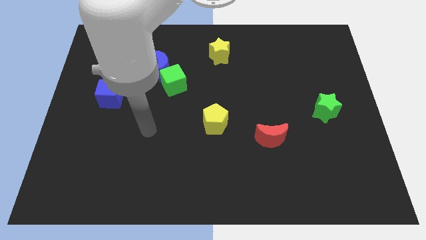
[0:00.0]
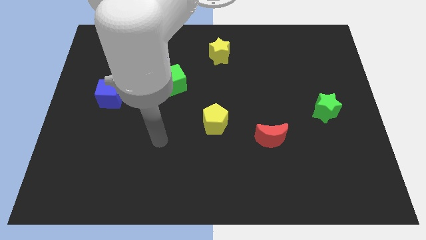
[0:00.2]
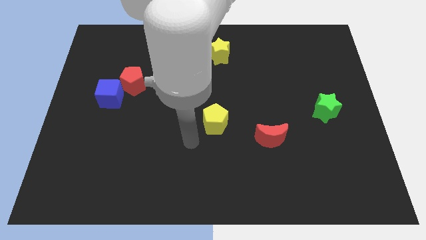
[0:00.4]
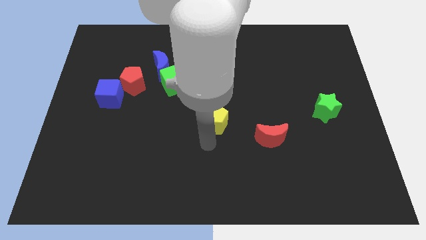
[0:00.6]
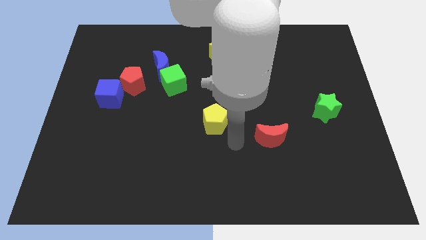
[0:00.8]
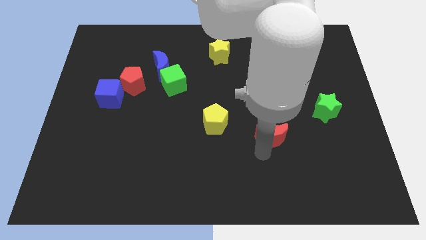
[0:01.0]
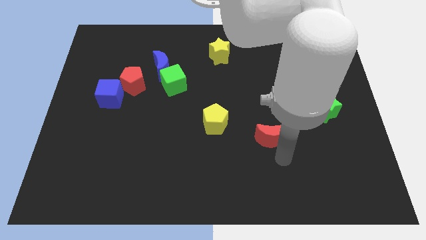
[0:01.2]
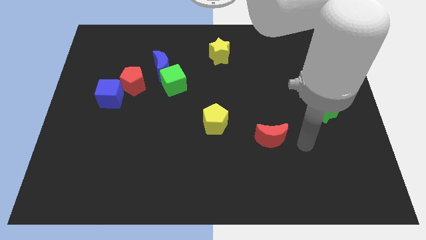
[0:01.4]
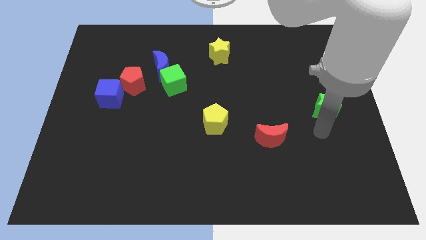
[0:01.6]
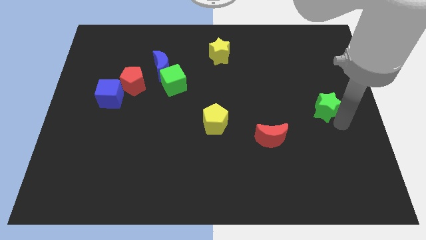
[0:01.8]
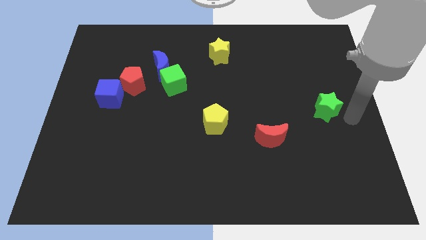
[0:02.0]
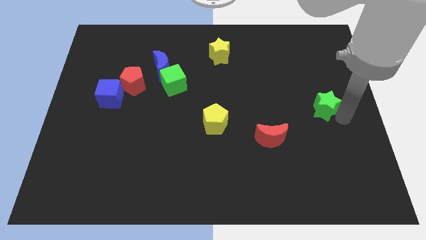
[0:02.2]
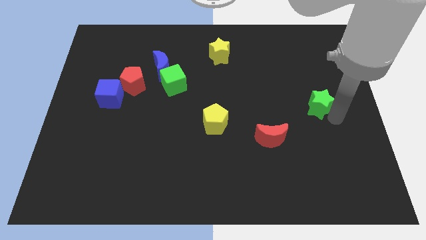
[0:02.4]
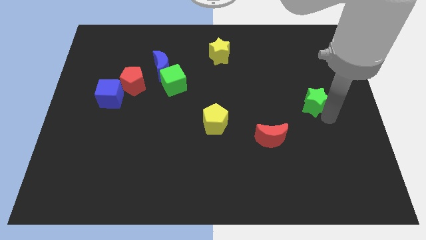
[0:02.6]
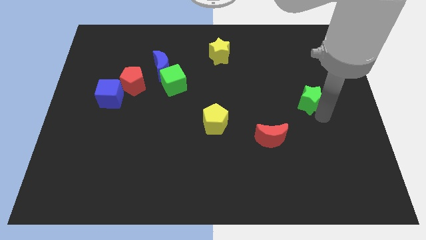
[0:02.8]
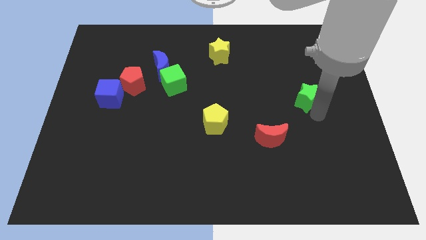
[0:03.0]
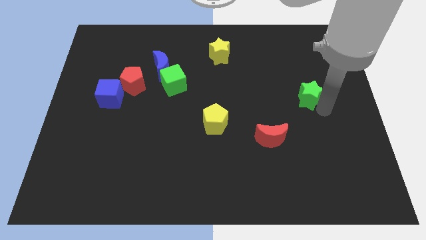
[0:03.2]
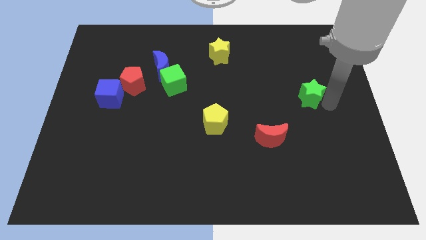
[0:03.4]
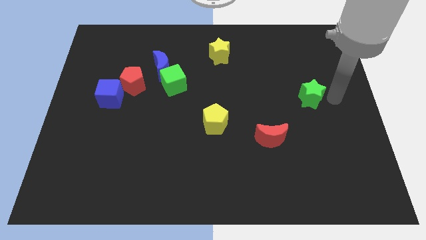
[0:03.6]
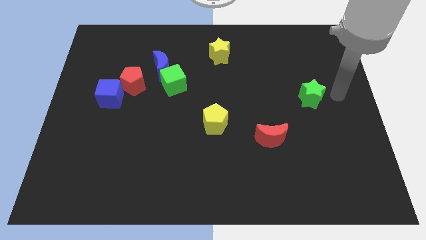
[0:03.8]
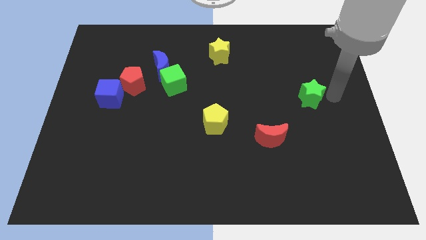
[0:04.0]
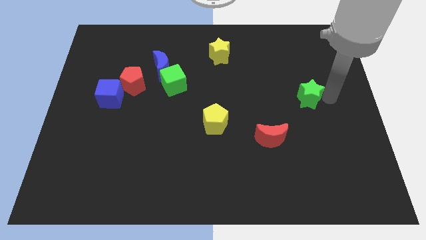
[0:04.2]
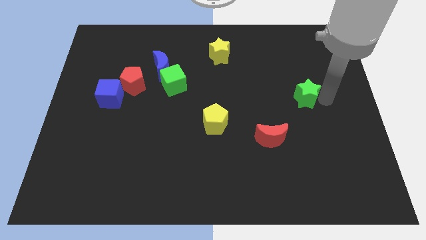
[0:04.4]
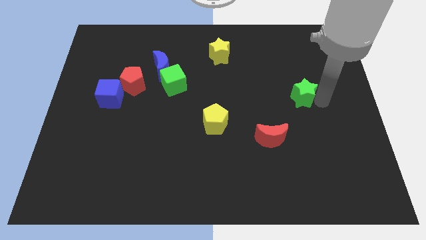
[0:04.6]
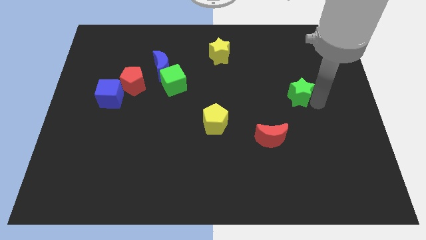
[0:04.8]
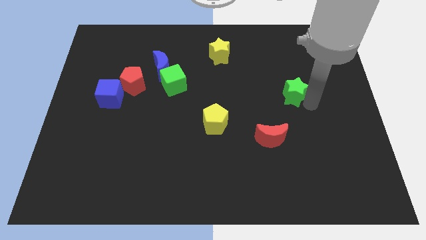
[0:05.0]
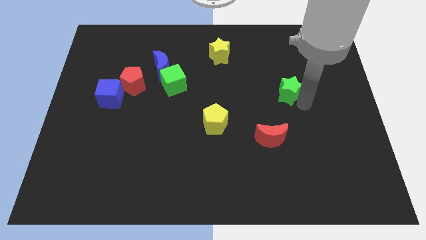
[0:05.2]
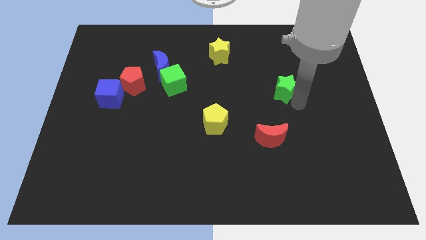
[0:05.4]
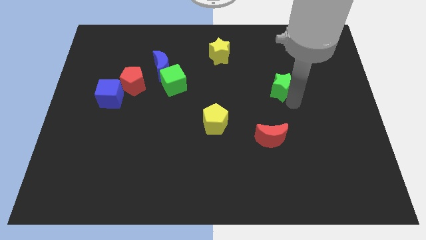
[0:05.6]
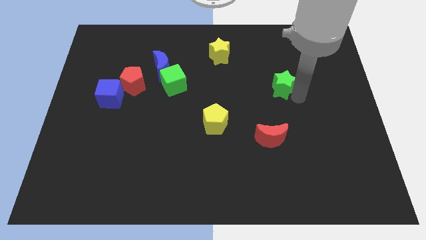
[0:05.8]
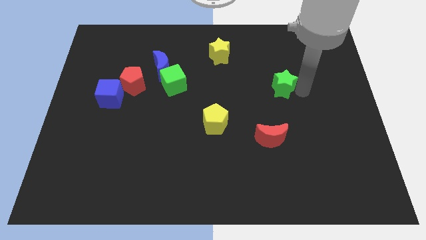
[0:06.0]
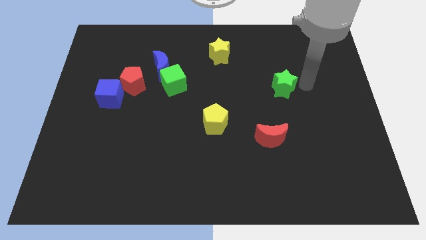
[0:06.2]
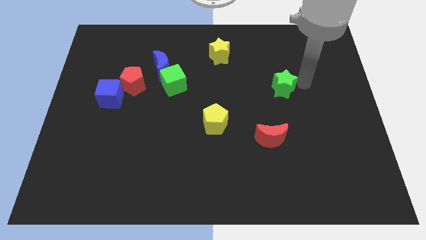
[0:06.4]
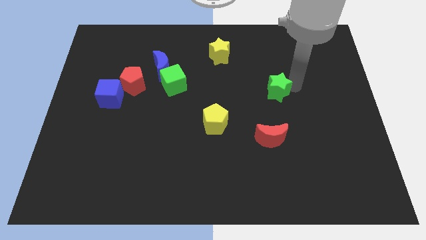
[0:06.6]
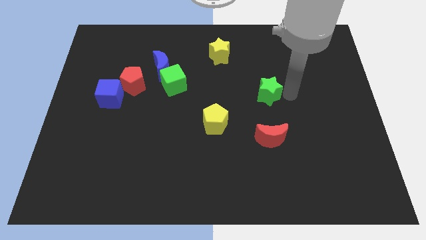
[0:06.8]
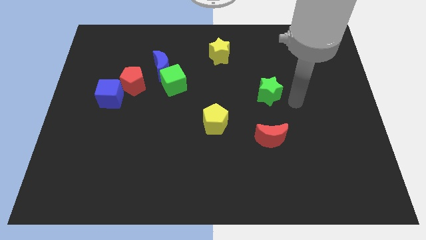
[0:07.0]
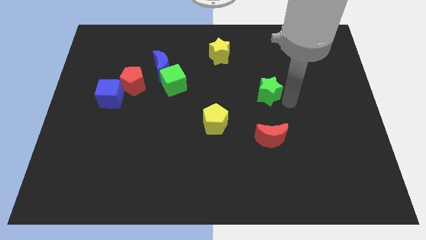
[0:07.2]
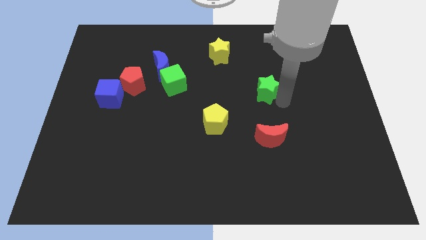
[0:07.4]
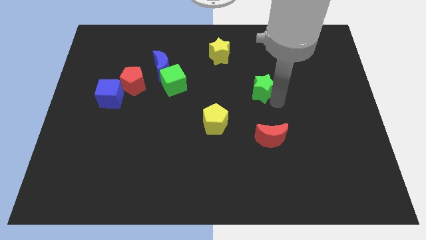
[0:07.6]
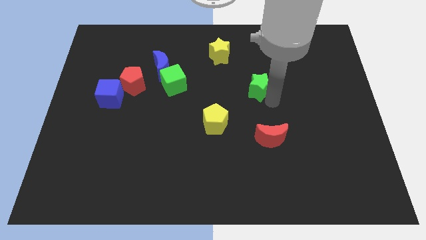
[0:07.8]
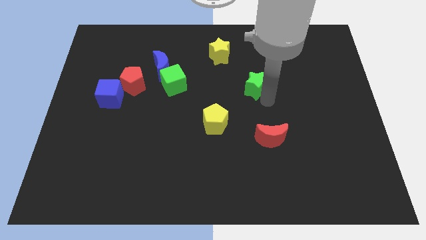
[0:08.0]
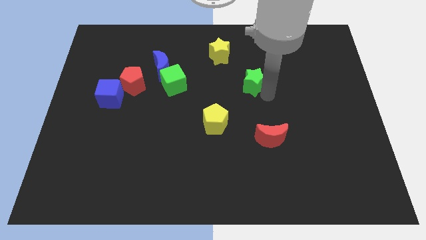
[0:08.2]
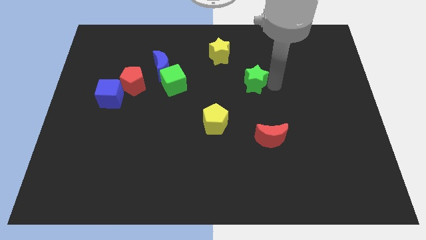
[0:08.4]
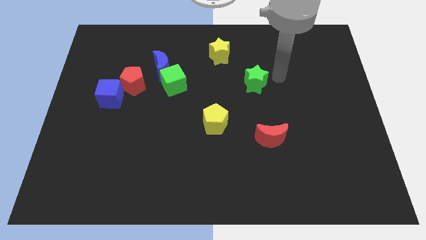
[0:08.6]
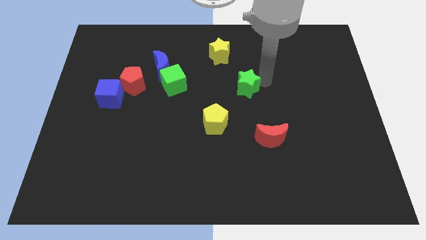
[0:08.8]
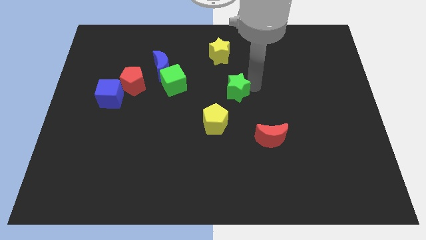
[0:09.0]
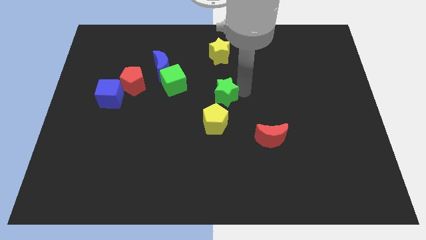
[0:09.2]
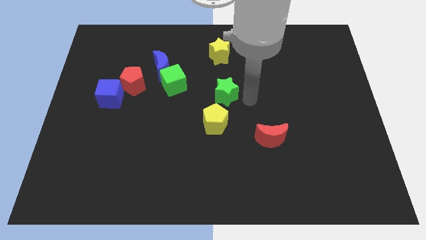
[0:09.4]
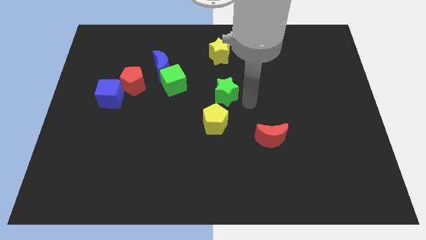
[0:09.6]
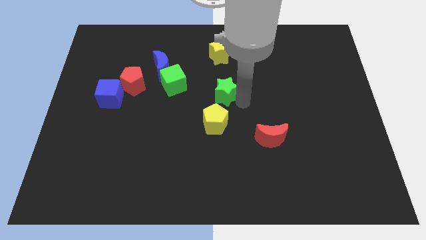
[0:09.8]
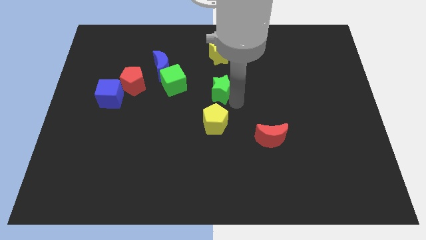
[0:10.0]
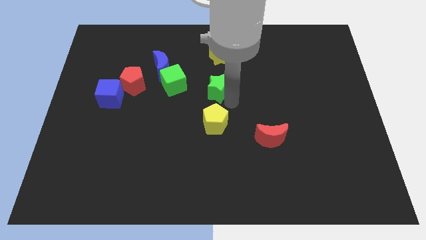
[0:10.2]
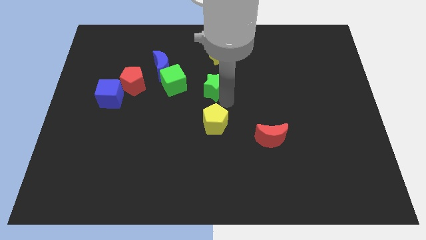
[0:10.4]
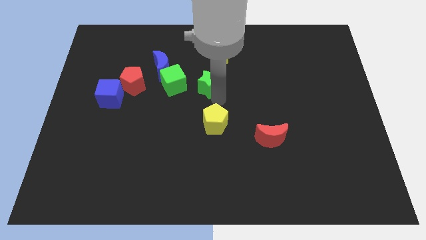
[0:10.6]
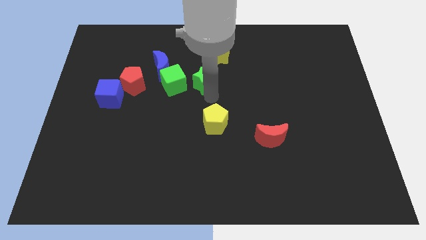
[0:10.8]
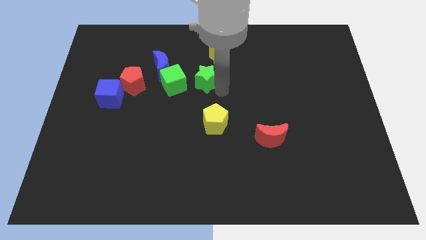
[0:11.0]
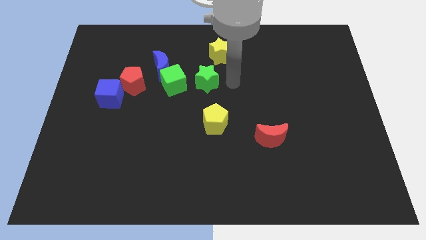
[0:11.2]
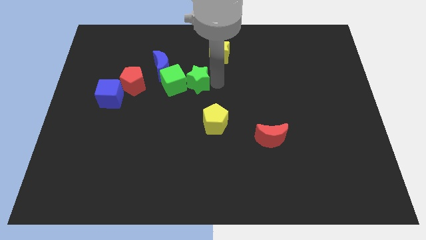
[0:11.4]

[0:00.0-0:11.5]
move the green star to the green cube

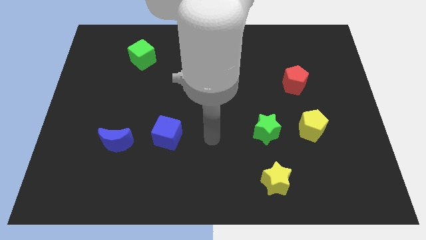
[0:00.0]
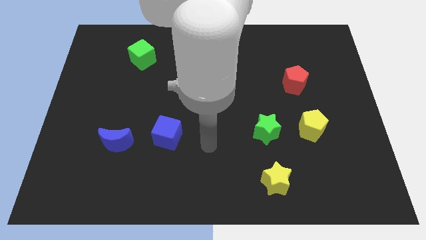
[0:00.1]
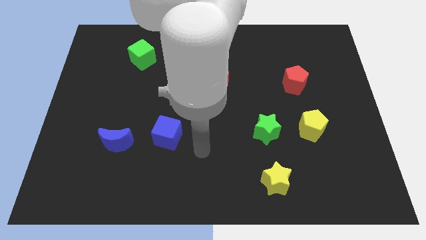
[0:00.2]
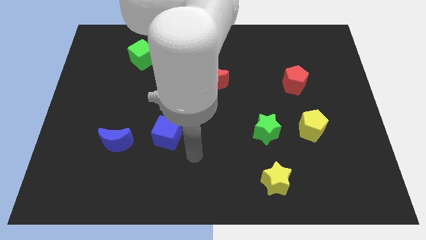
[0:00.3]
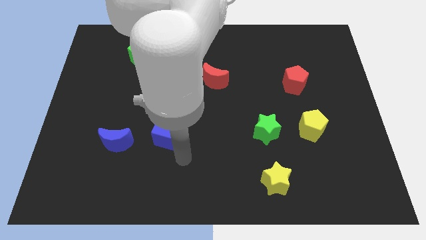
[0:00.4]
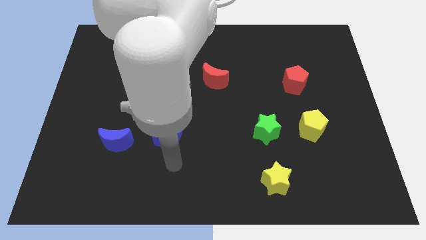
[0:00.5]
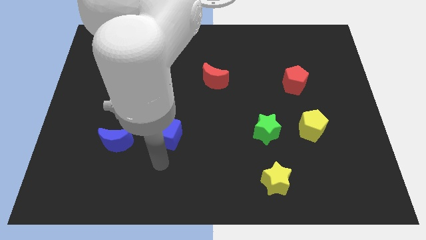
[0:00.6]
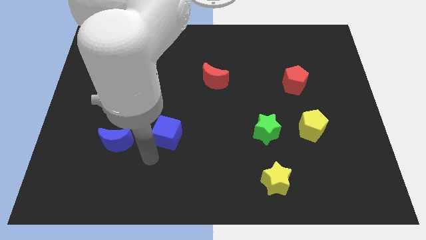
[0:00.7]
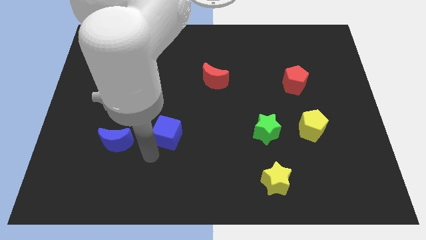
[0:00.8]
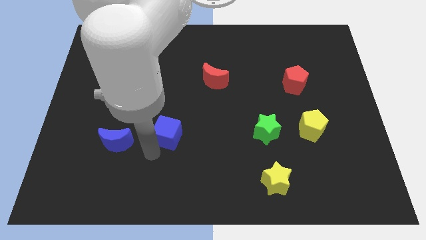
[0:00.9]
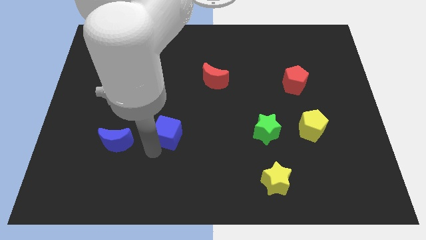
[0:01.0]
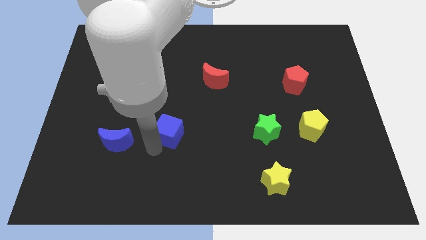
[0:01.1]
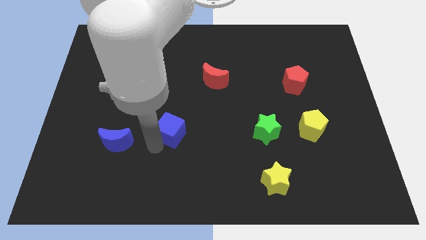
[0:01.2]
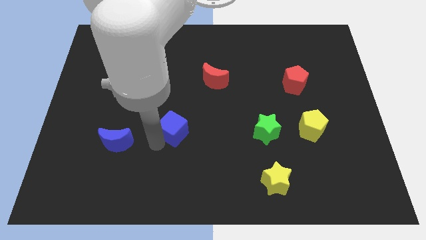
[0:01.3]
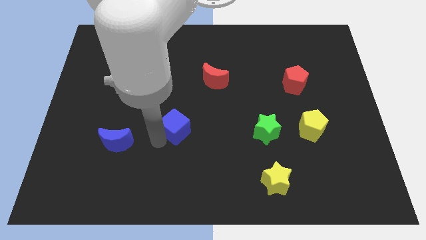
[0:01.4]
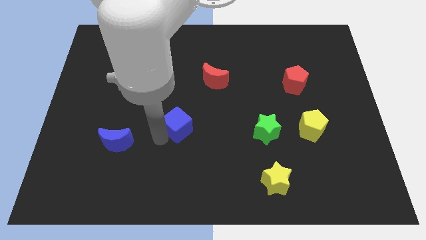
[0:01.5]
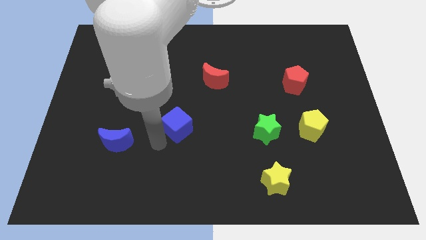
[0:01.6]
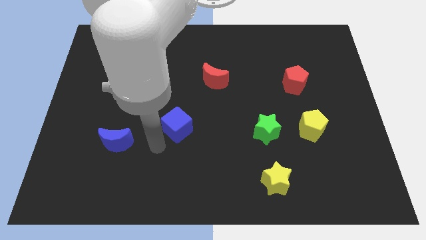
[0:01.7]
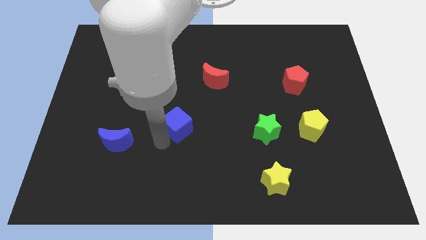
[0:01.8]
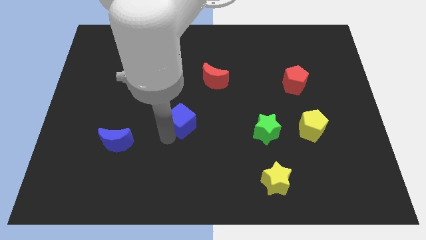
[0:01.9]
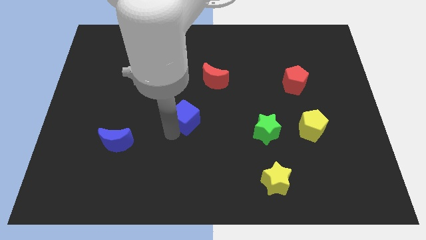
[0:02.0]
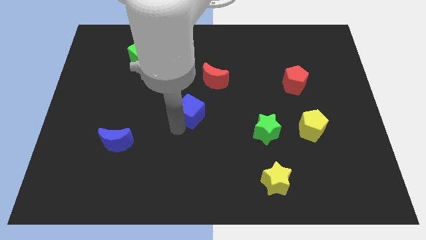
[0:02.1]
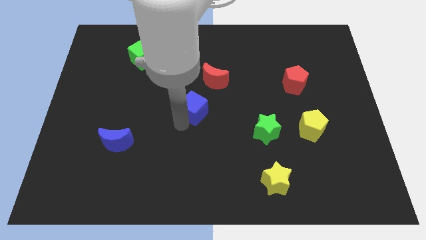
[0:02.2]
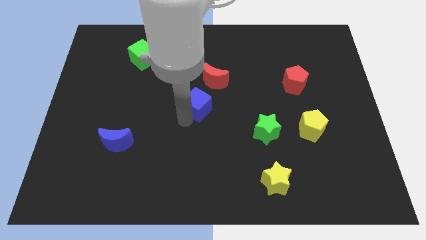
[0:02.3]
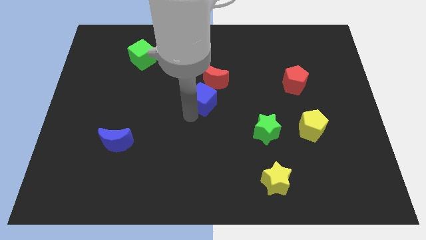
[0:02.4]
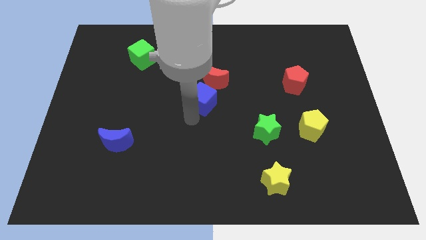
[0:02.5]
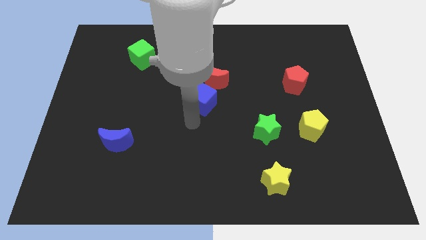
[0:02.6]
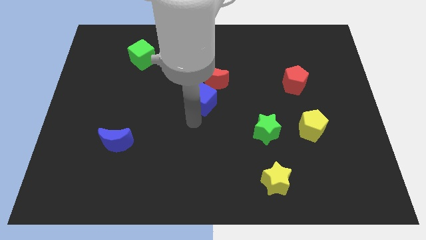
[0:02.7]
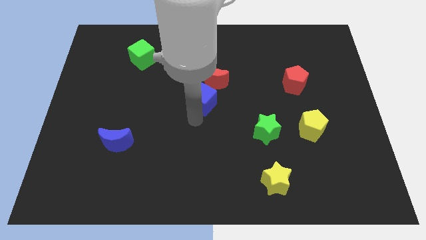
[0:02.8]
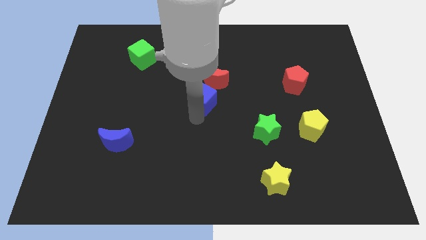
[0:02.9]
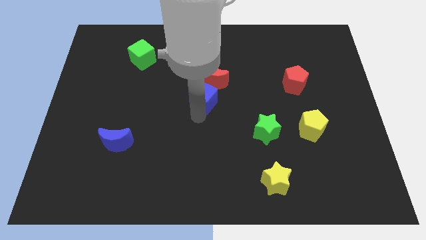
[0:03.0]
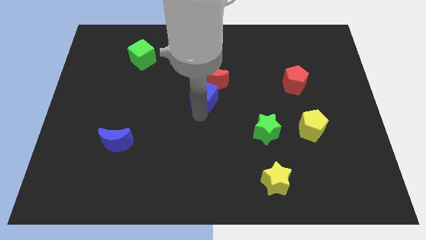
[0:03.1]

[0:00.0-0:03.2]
slide the blue cube next to the red moon
